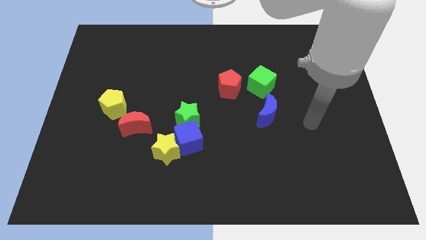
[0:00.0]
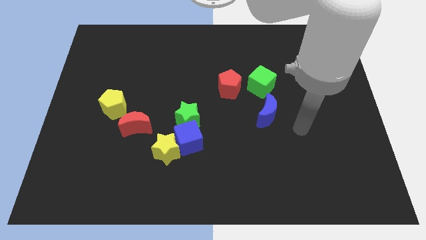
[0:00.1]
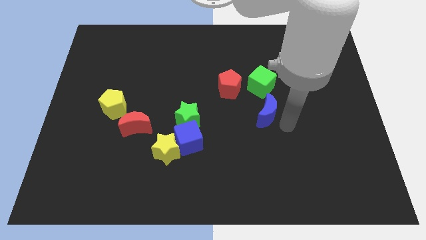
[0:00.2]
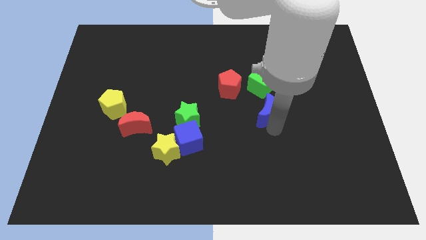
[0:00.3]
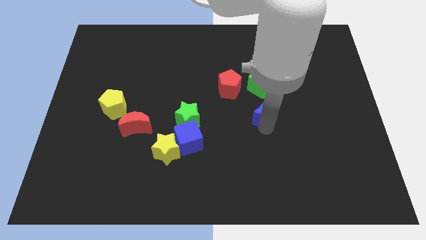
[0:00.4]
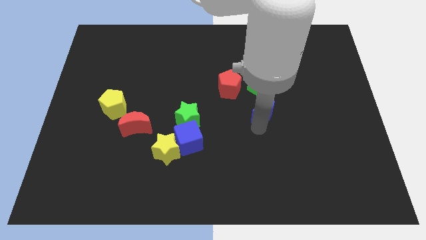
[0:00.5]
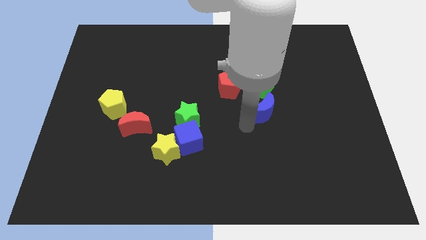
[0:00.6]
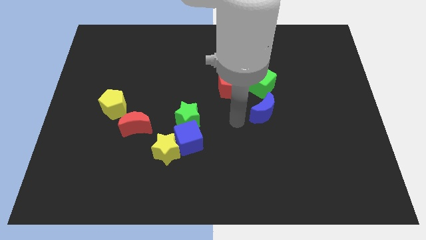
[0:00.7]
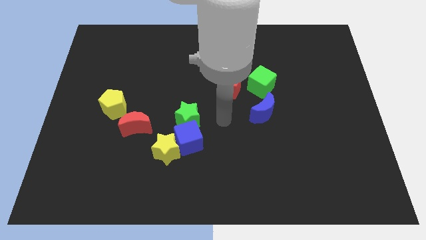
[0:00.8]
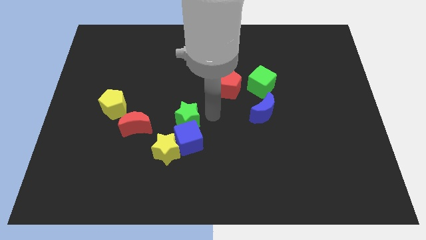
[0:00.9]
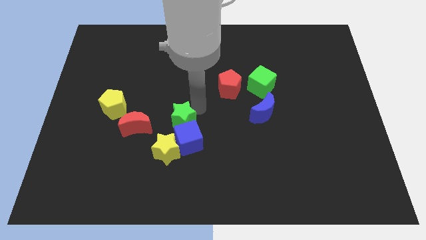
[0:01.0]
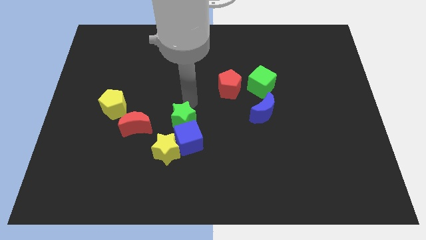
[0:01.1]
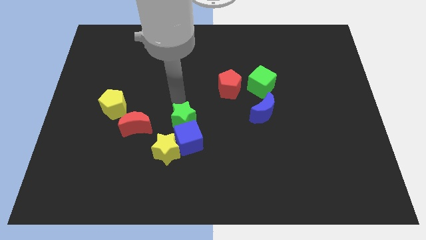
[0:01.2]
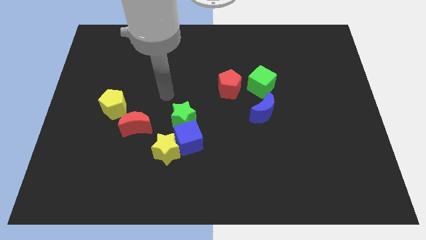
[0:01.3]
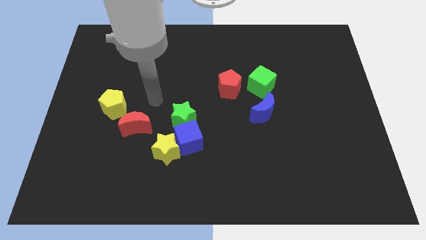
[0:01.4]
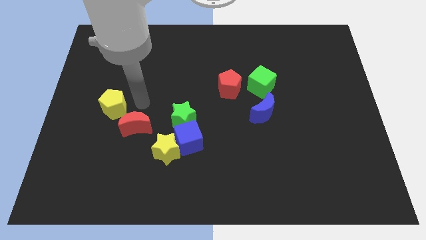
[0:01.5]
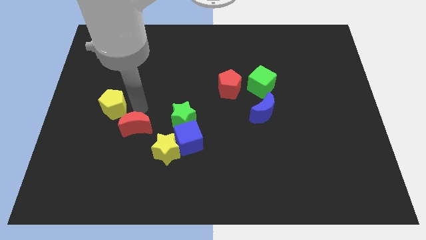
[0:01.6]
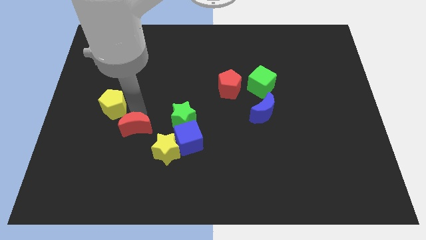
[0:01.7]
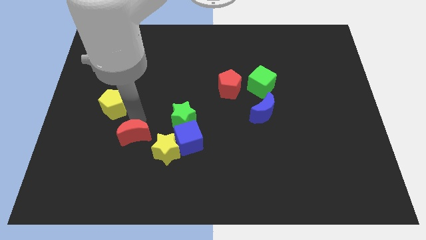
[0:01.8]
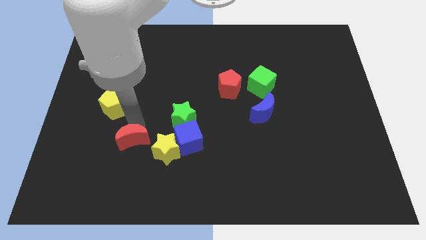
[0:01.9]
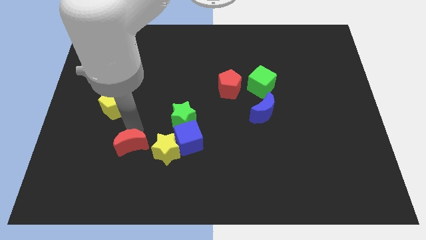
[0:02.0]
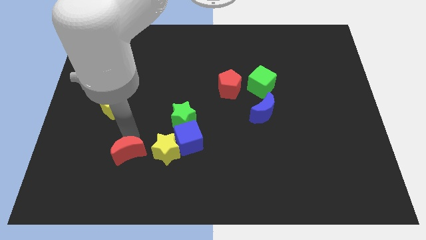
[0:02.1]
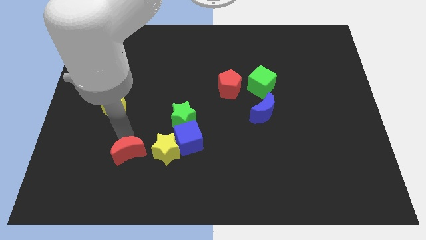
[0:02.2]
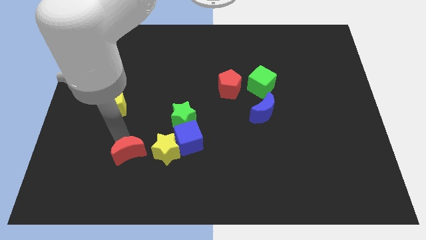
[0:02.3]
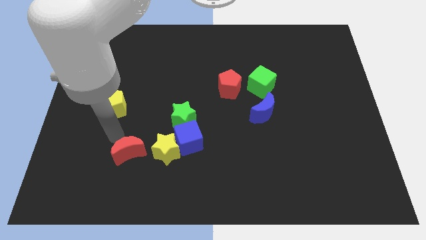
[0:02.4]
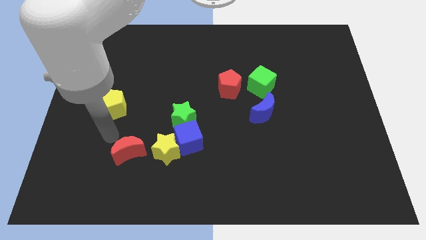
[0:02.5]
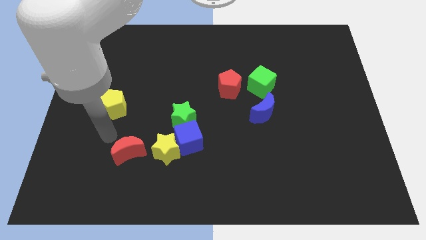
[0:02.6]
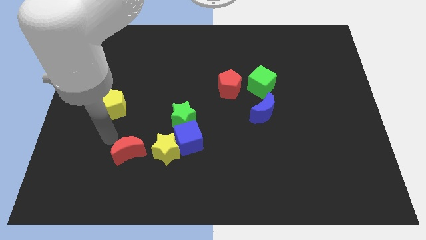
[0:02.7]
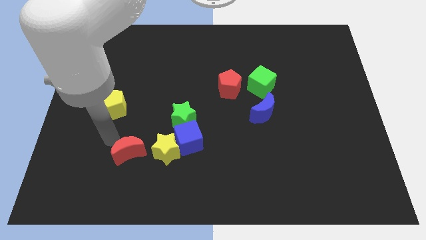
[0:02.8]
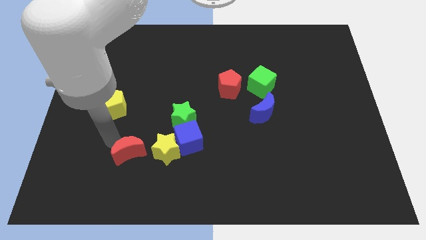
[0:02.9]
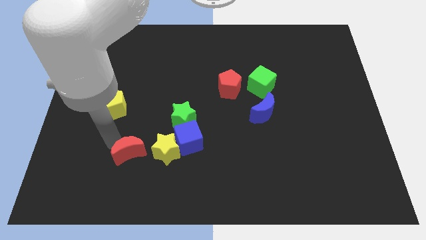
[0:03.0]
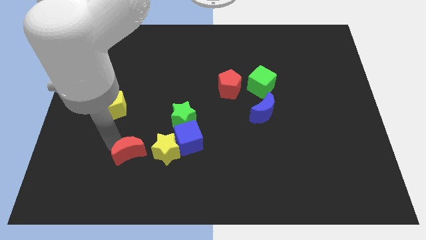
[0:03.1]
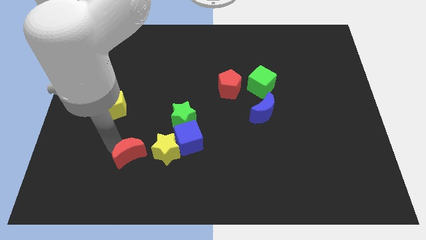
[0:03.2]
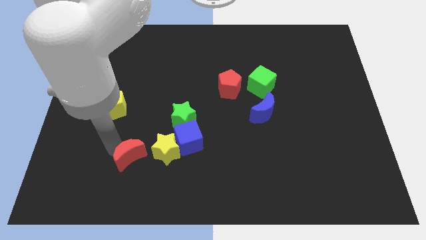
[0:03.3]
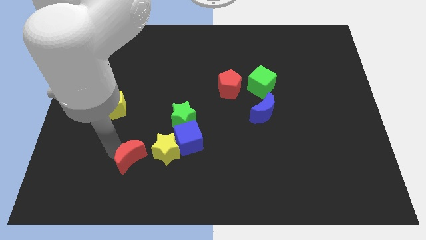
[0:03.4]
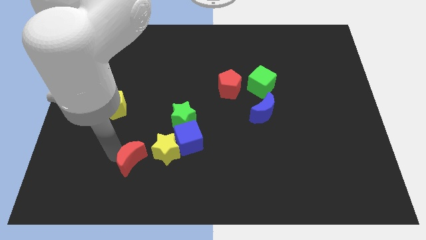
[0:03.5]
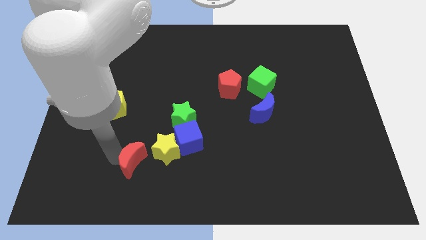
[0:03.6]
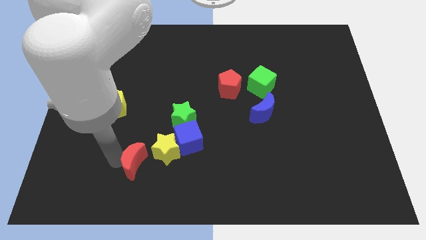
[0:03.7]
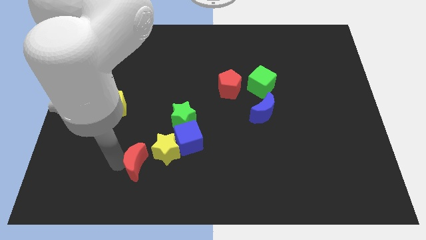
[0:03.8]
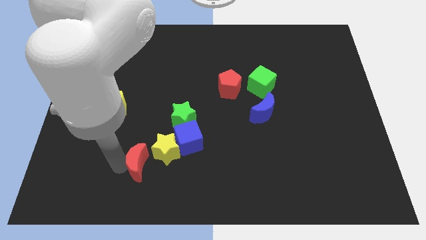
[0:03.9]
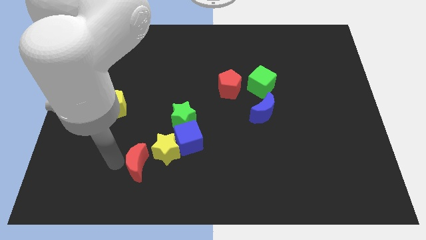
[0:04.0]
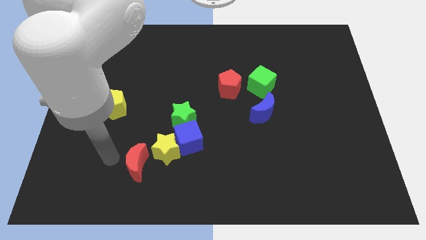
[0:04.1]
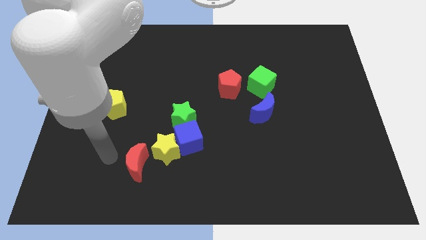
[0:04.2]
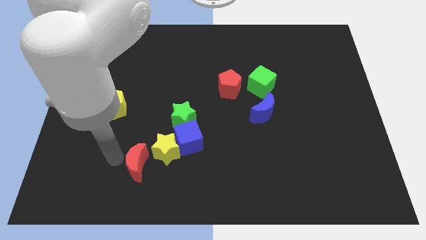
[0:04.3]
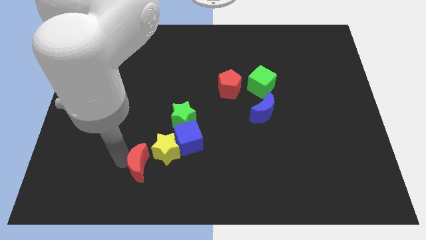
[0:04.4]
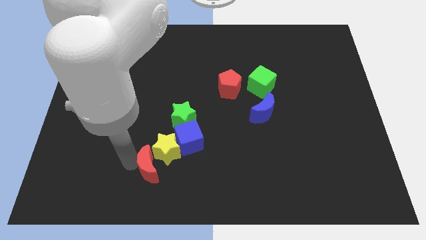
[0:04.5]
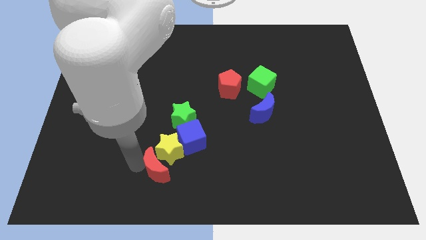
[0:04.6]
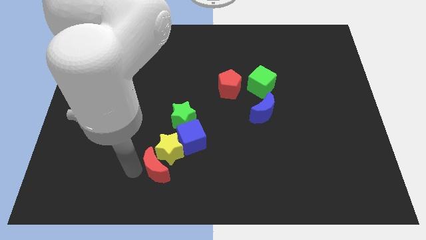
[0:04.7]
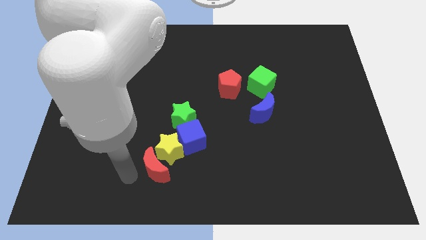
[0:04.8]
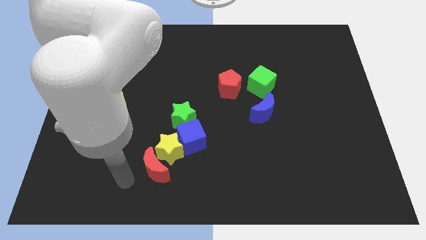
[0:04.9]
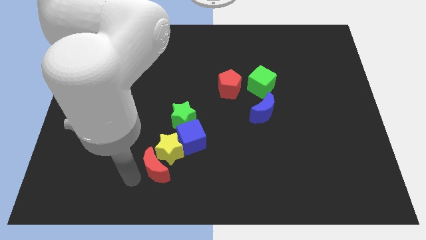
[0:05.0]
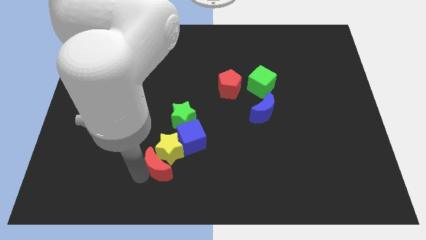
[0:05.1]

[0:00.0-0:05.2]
put the red moon to the bottom side of the green star

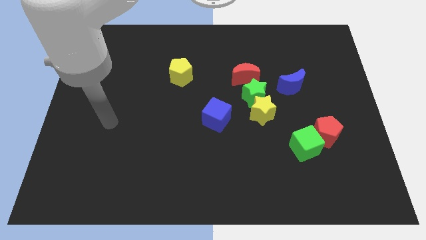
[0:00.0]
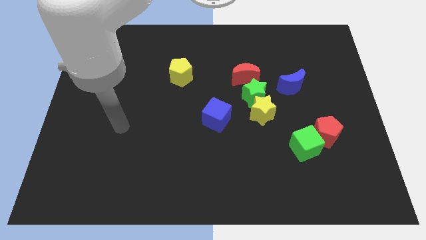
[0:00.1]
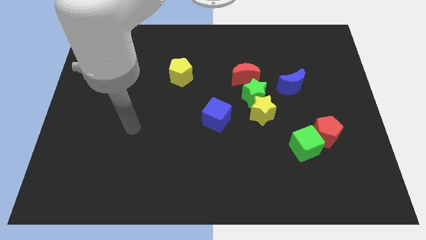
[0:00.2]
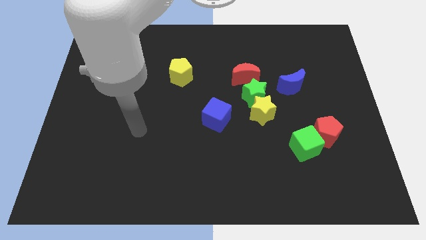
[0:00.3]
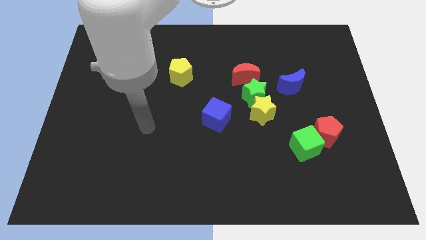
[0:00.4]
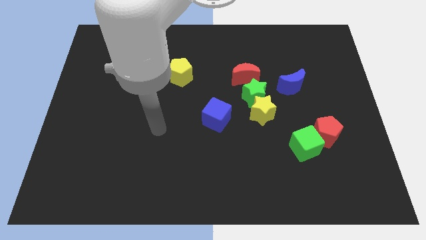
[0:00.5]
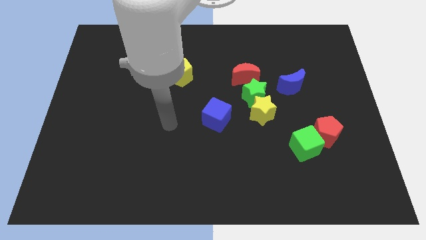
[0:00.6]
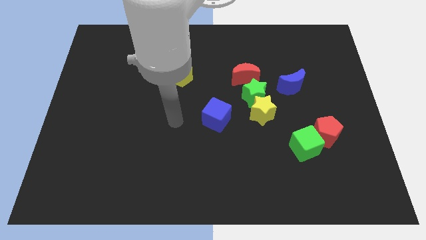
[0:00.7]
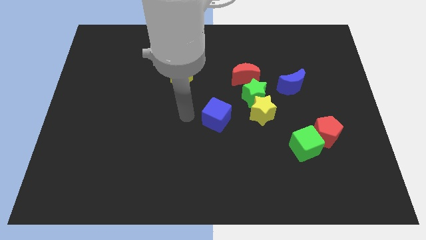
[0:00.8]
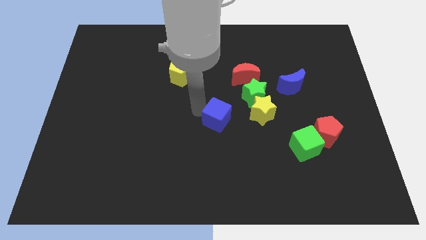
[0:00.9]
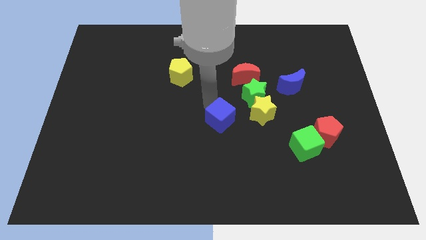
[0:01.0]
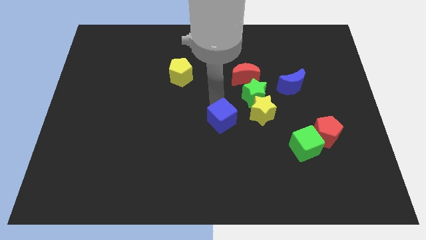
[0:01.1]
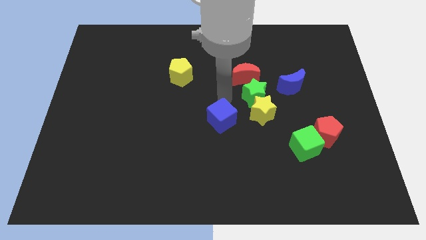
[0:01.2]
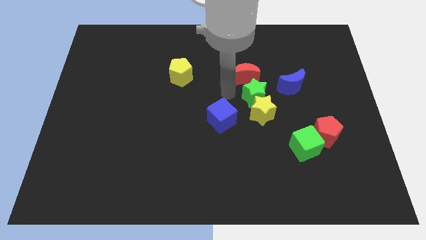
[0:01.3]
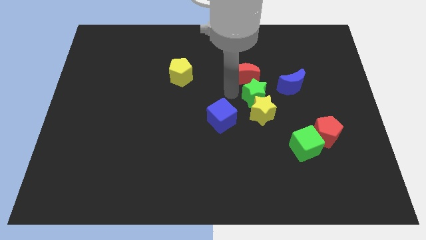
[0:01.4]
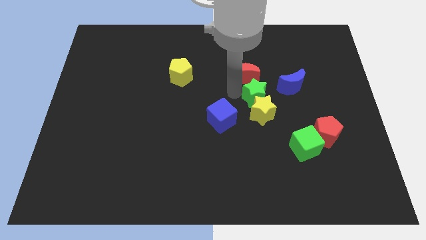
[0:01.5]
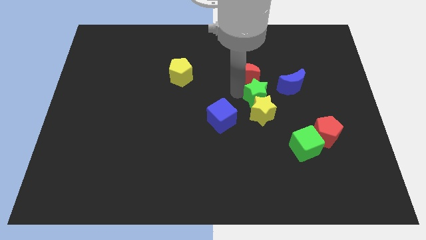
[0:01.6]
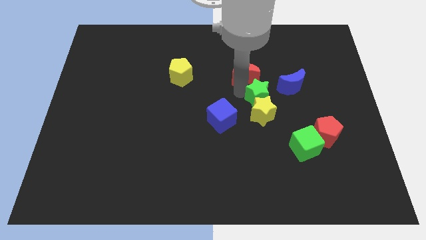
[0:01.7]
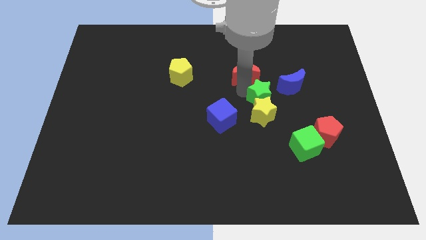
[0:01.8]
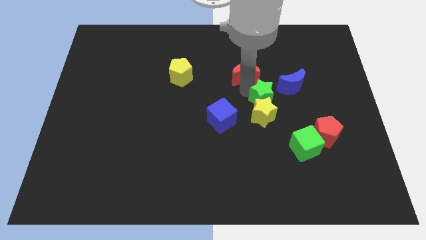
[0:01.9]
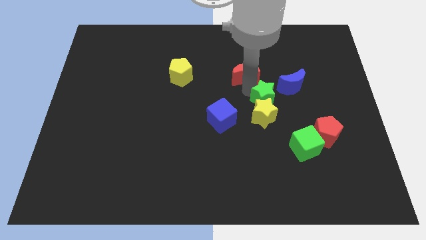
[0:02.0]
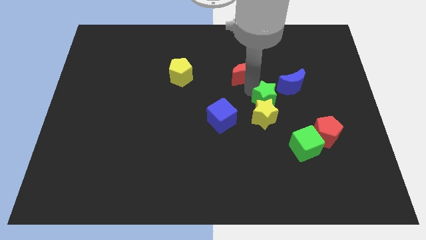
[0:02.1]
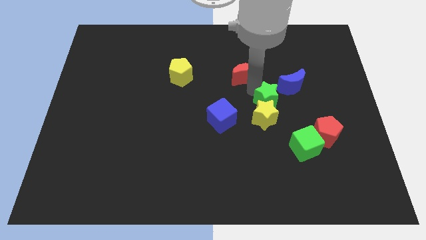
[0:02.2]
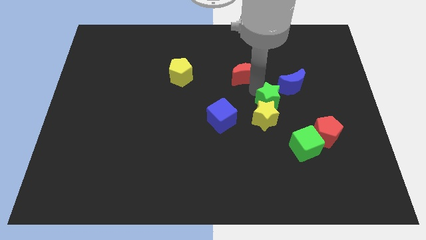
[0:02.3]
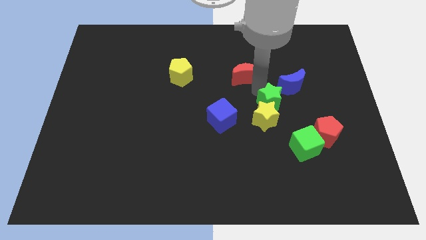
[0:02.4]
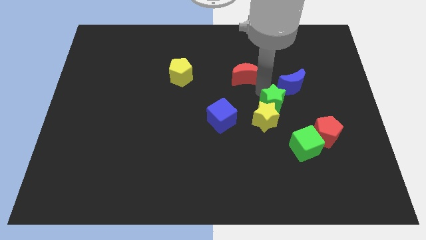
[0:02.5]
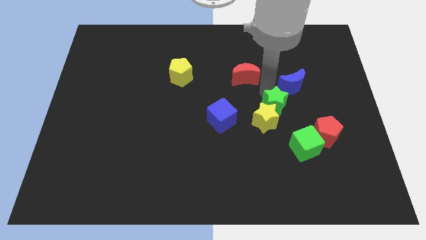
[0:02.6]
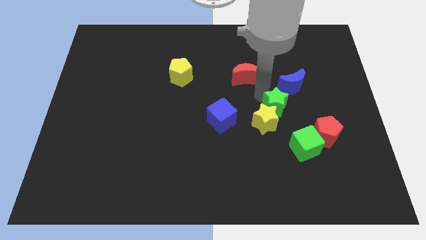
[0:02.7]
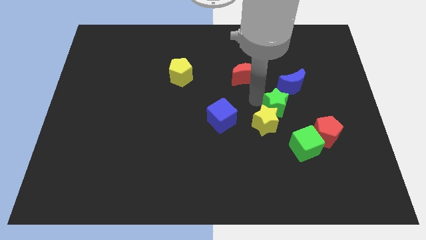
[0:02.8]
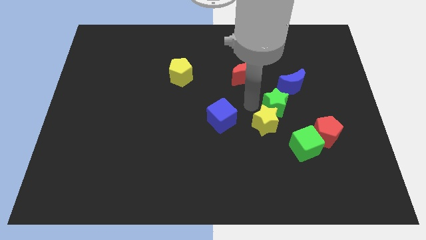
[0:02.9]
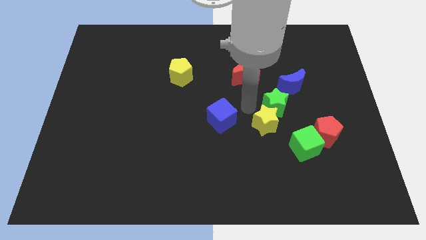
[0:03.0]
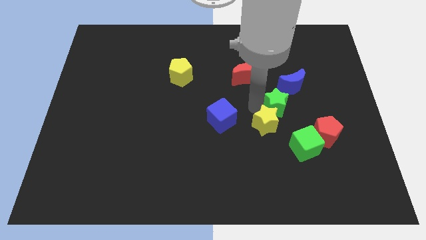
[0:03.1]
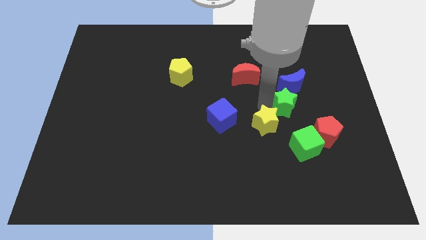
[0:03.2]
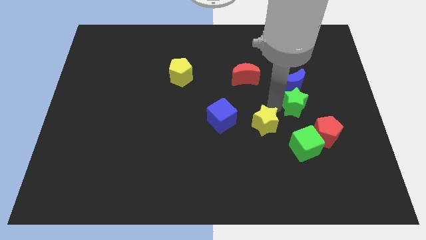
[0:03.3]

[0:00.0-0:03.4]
slide the green star to the bottom right side of the blue moon
